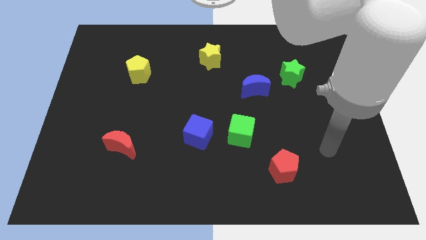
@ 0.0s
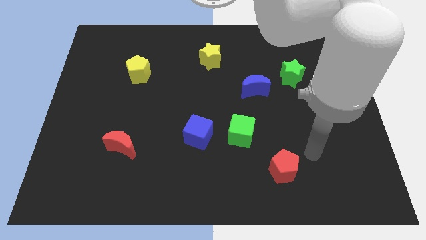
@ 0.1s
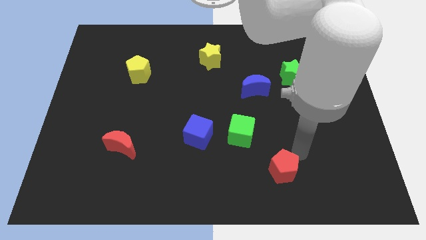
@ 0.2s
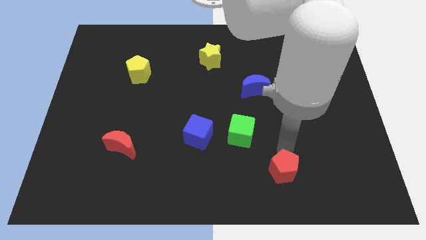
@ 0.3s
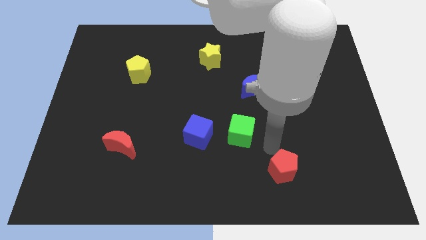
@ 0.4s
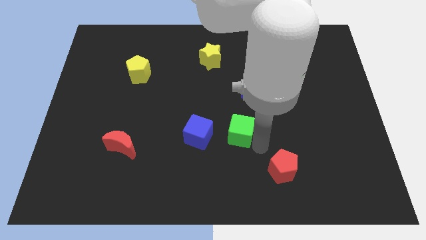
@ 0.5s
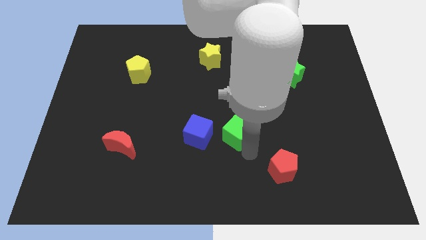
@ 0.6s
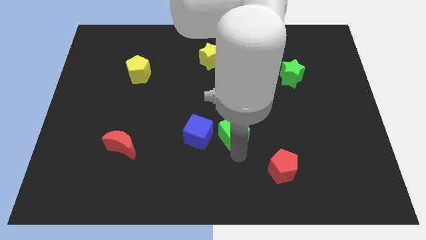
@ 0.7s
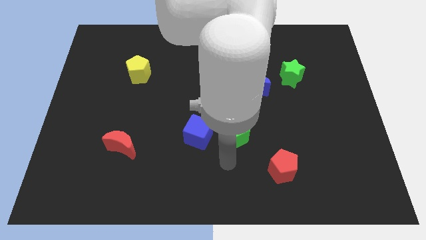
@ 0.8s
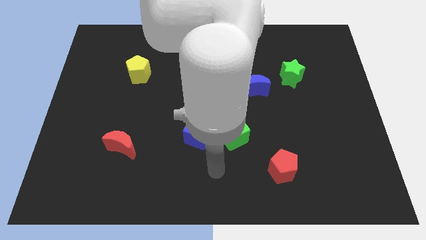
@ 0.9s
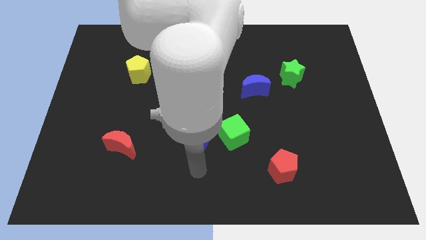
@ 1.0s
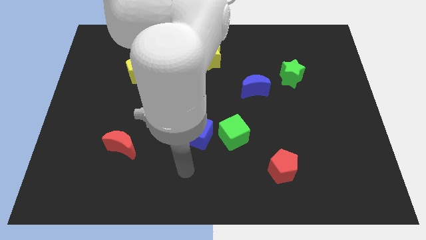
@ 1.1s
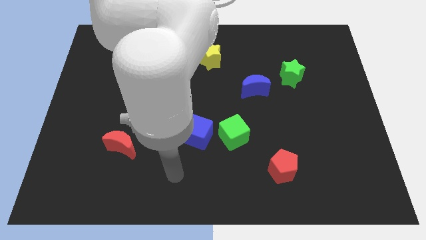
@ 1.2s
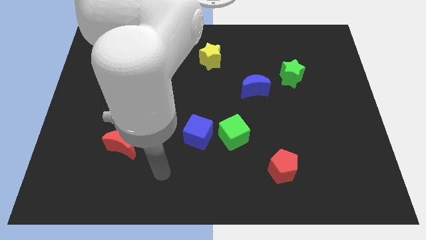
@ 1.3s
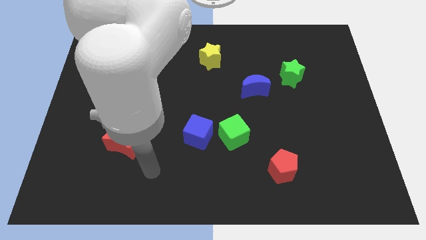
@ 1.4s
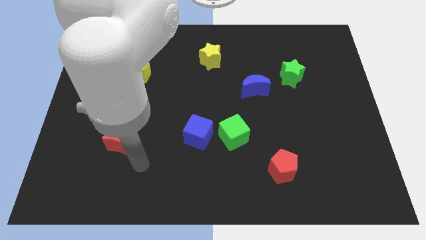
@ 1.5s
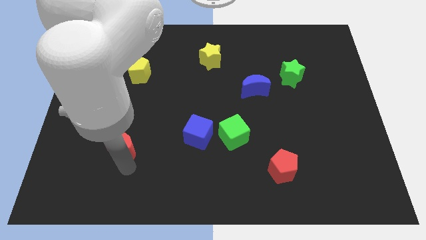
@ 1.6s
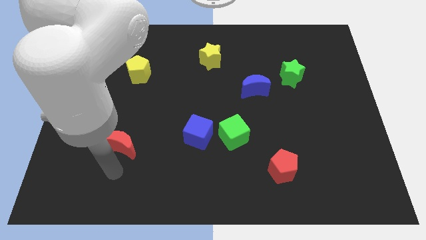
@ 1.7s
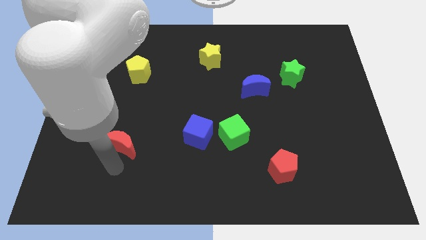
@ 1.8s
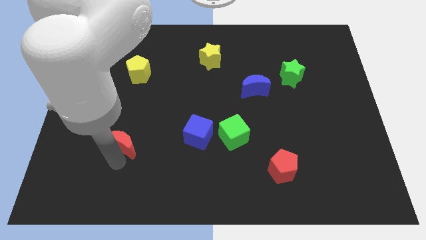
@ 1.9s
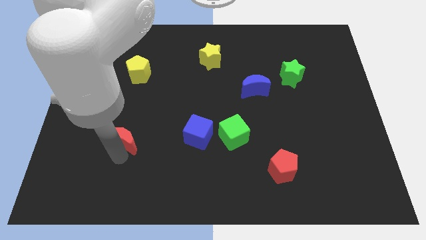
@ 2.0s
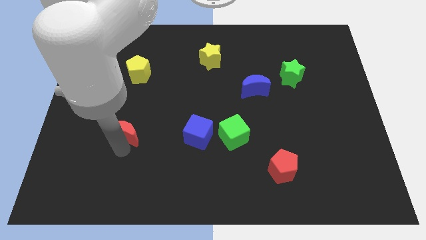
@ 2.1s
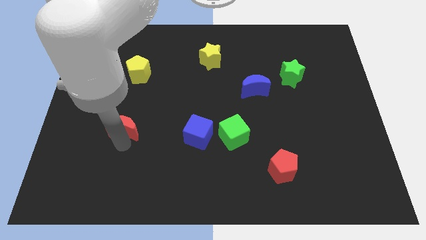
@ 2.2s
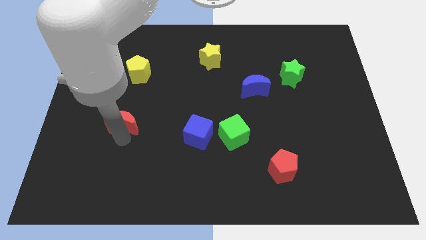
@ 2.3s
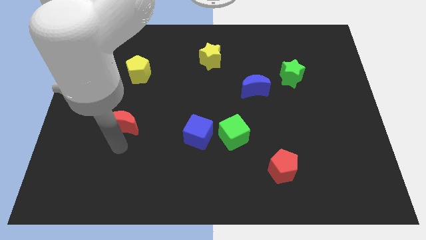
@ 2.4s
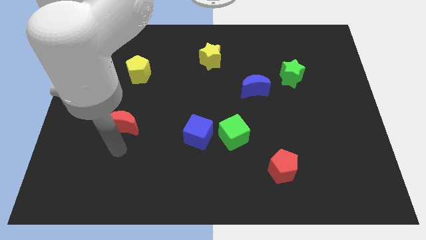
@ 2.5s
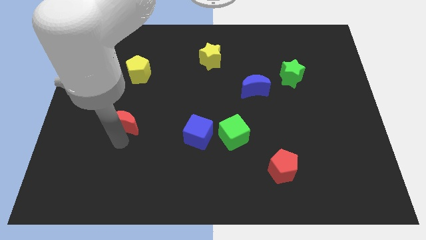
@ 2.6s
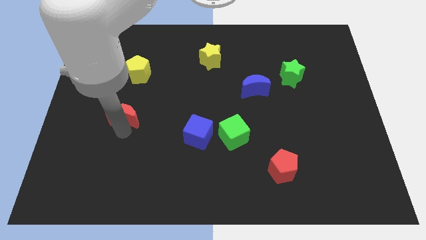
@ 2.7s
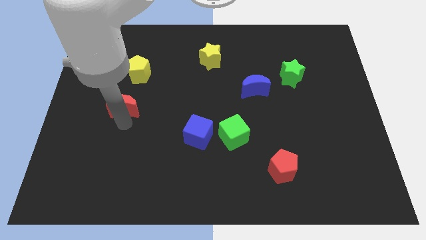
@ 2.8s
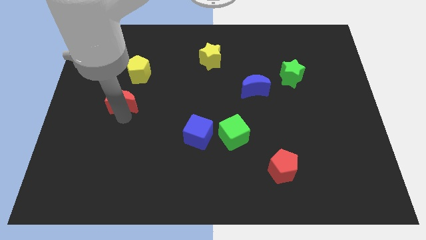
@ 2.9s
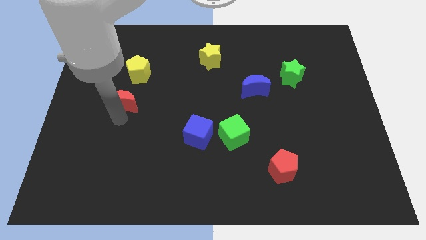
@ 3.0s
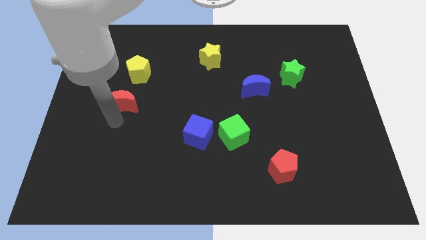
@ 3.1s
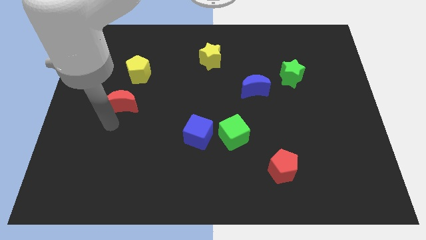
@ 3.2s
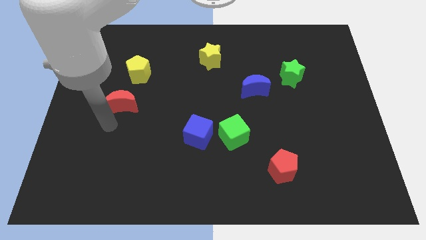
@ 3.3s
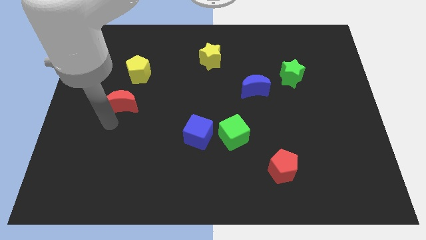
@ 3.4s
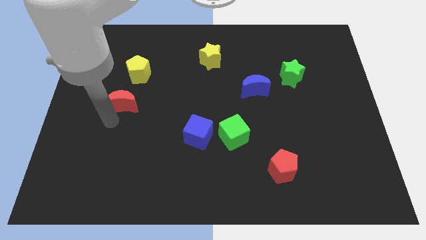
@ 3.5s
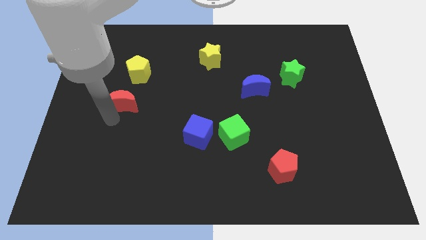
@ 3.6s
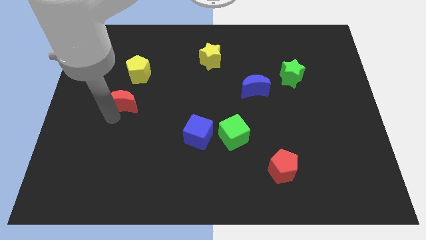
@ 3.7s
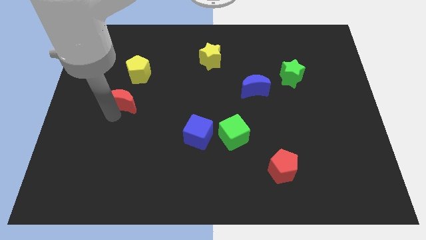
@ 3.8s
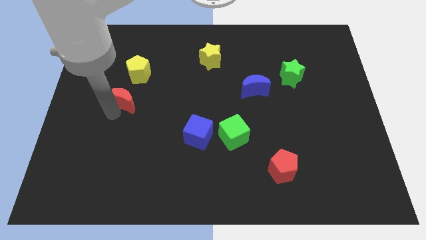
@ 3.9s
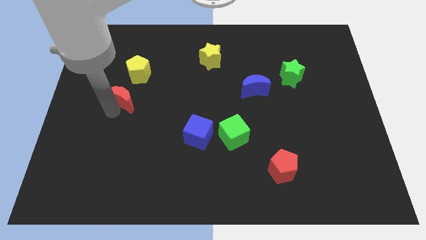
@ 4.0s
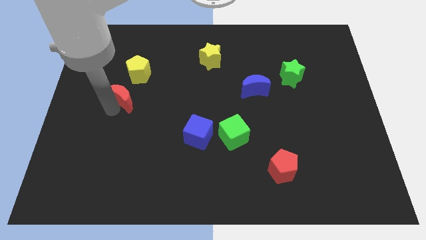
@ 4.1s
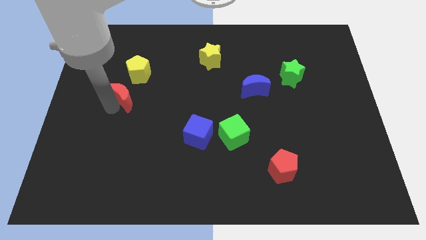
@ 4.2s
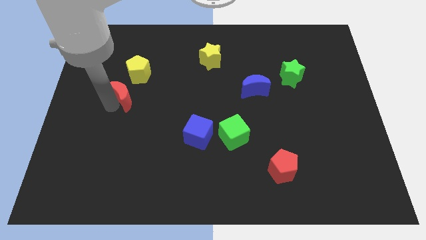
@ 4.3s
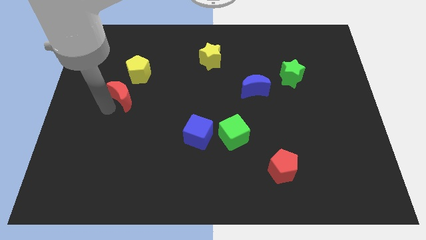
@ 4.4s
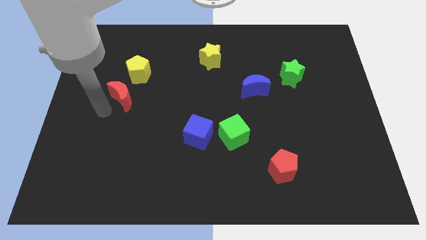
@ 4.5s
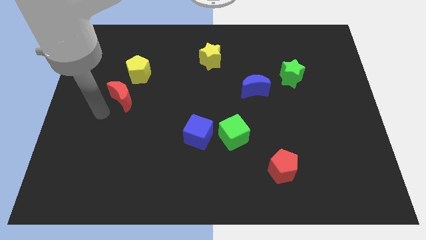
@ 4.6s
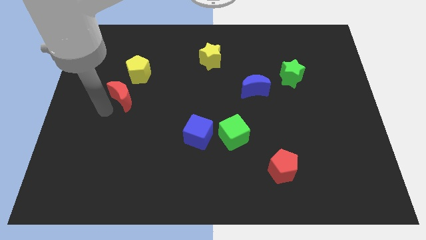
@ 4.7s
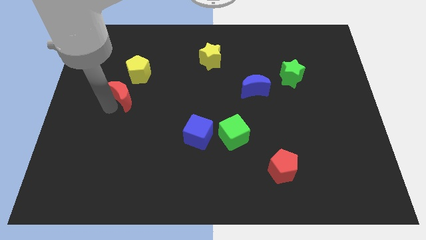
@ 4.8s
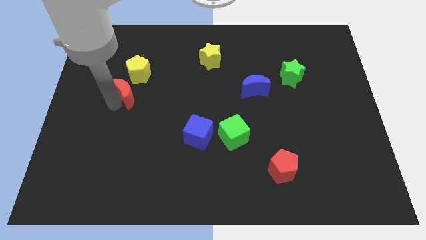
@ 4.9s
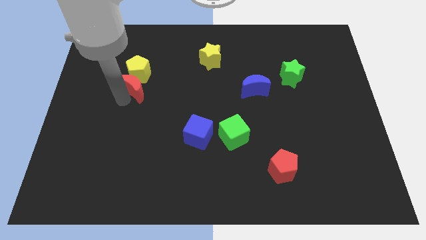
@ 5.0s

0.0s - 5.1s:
slide the red moon towards the yellow pentagon

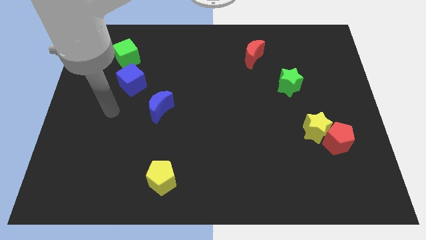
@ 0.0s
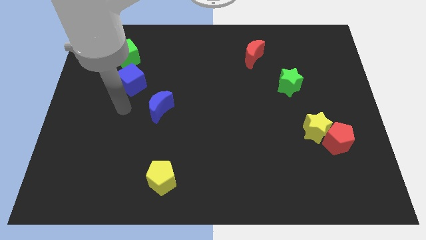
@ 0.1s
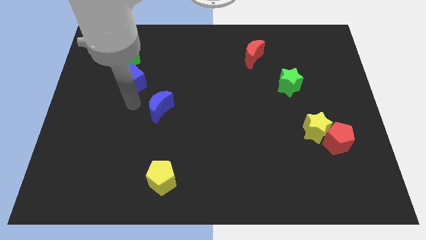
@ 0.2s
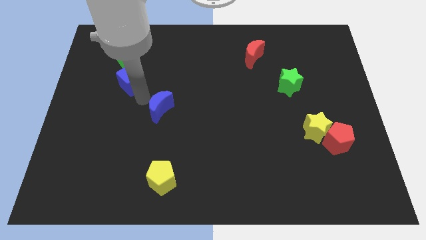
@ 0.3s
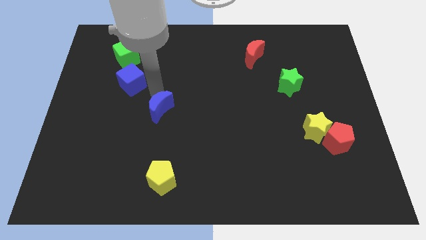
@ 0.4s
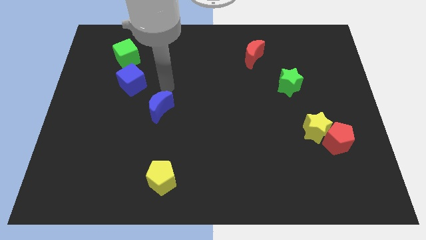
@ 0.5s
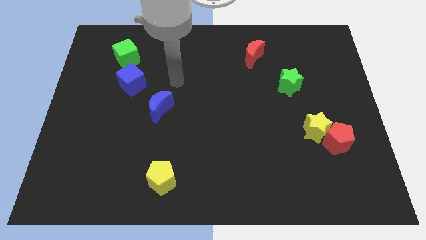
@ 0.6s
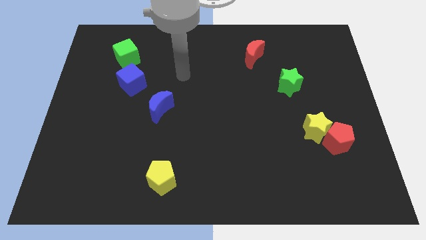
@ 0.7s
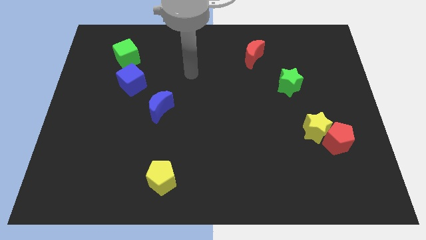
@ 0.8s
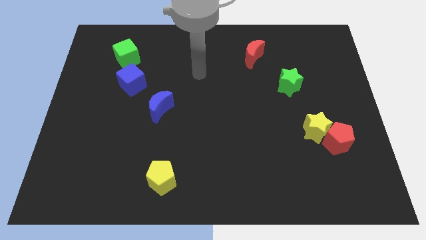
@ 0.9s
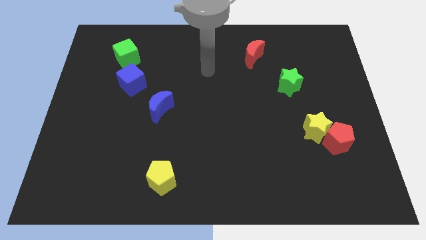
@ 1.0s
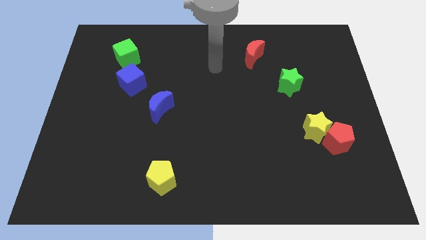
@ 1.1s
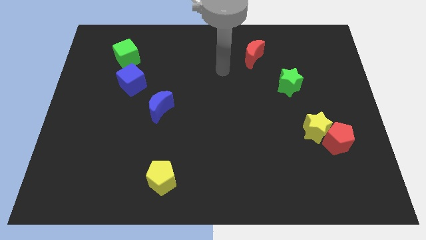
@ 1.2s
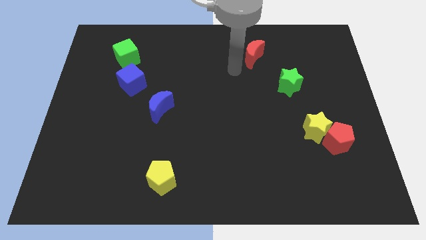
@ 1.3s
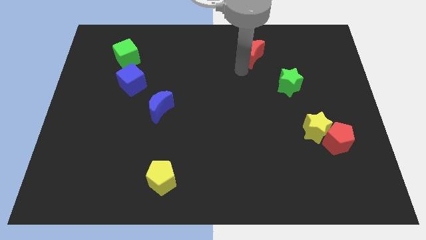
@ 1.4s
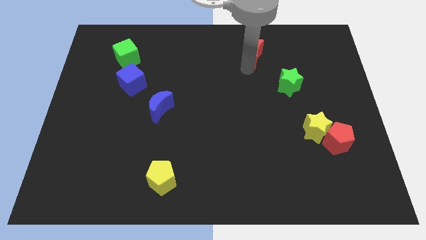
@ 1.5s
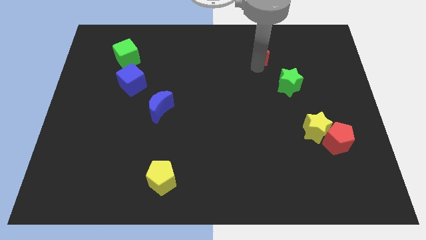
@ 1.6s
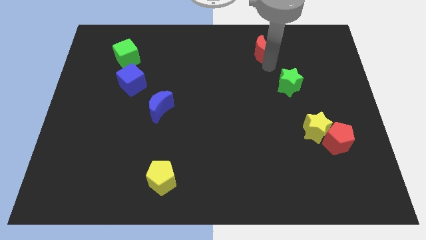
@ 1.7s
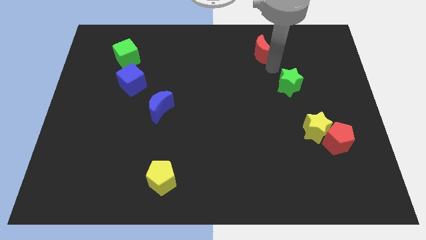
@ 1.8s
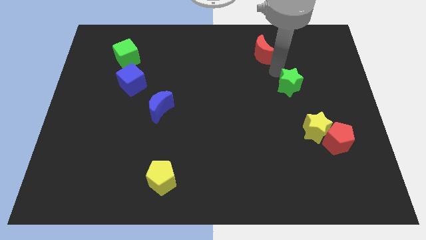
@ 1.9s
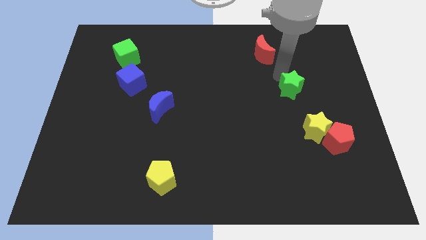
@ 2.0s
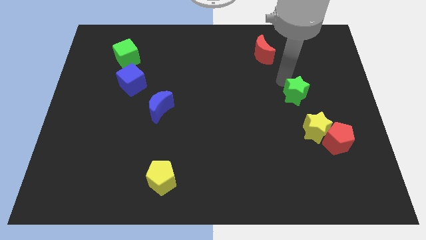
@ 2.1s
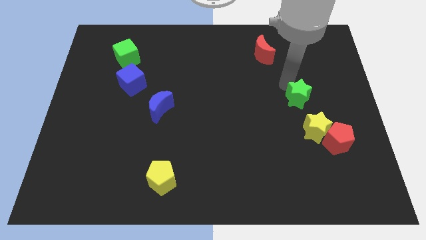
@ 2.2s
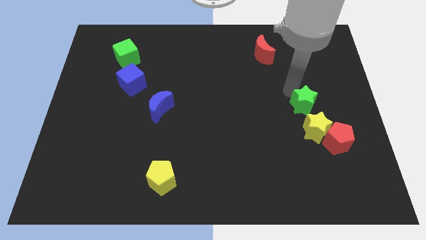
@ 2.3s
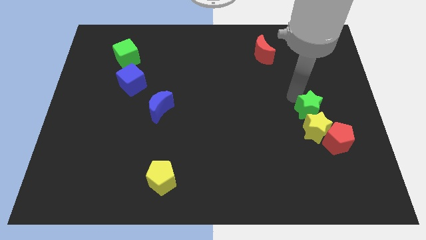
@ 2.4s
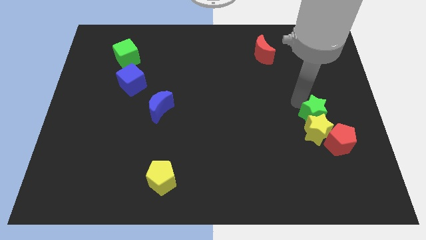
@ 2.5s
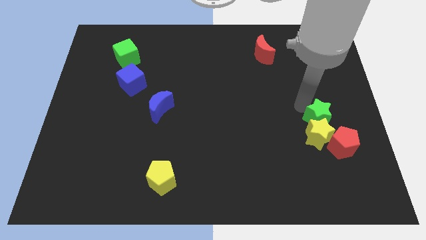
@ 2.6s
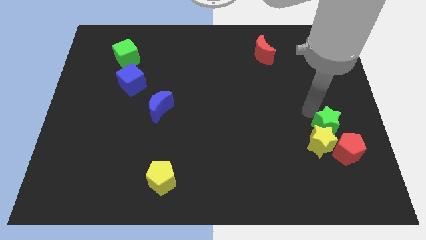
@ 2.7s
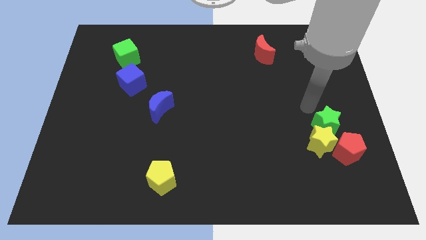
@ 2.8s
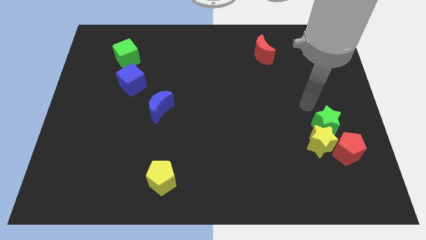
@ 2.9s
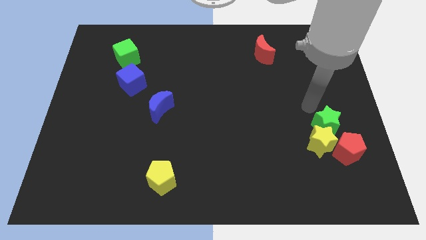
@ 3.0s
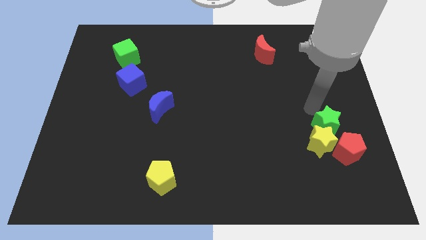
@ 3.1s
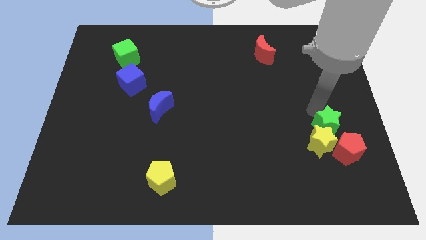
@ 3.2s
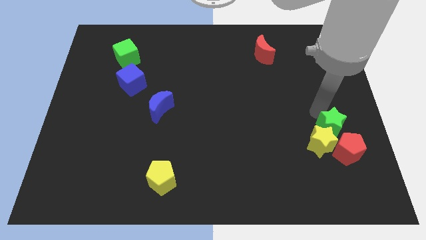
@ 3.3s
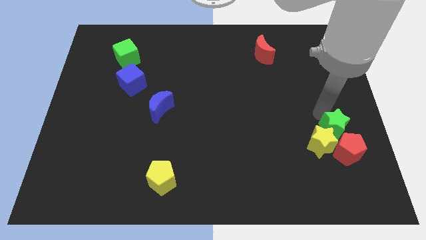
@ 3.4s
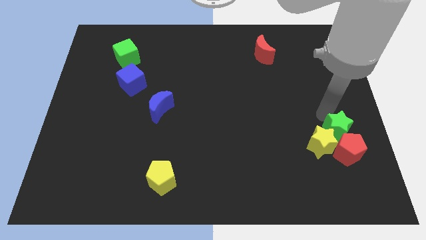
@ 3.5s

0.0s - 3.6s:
move the green star close to the red pentagon
